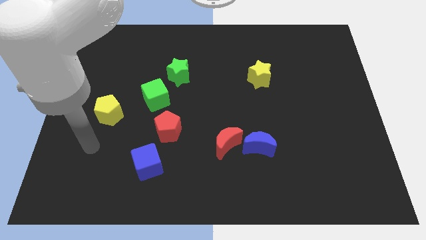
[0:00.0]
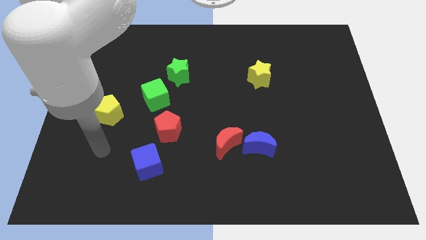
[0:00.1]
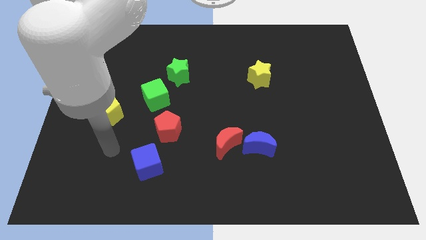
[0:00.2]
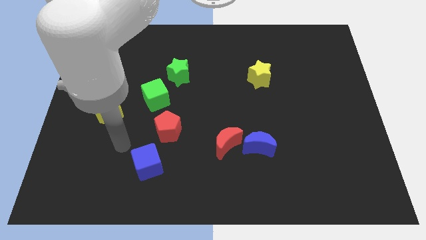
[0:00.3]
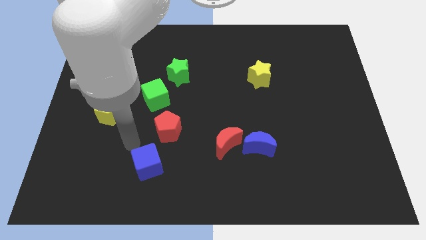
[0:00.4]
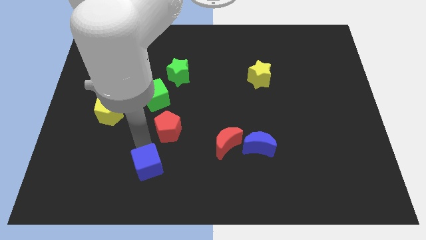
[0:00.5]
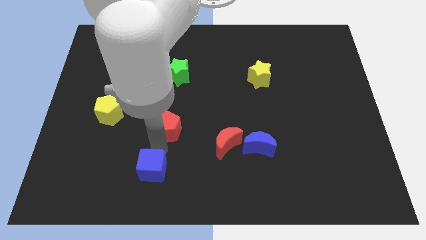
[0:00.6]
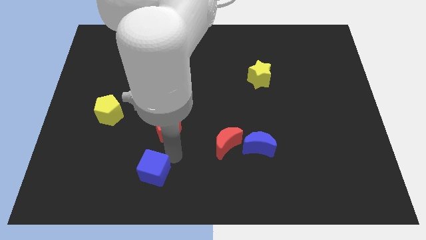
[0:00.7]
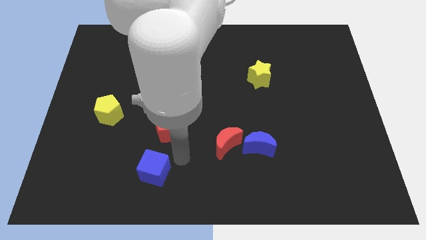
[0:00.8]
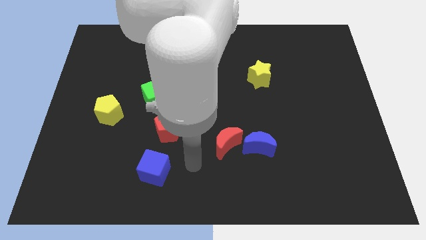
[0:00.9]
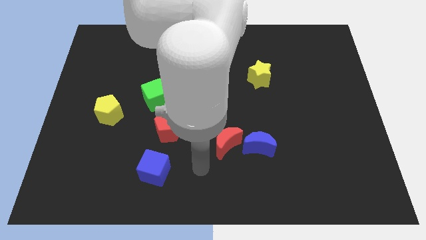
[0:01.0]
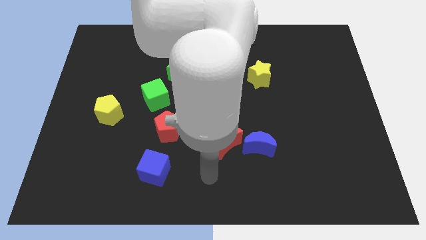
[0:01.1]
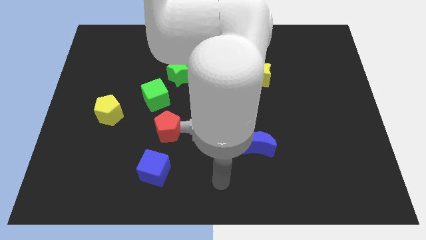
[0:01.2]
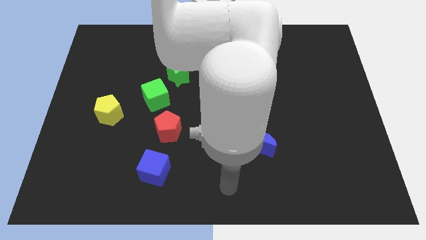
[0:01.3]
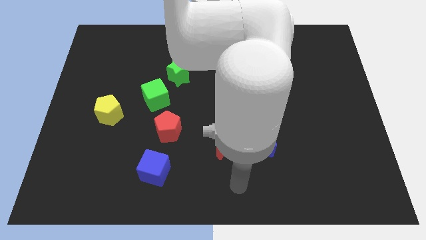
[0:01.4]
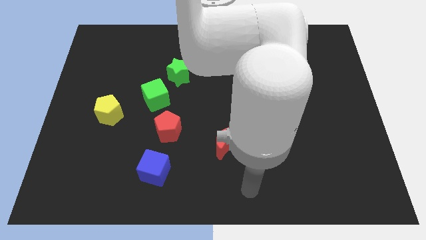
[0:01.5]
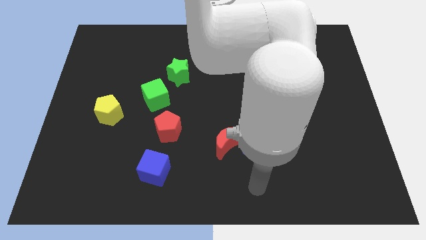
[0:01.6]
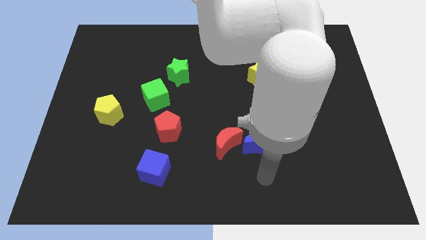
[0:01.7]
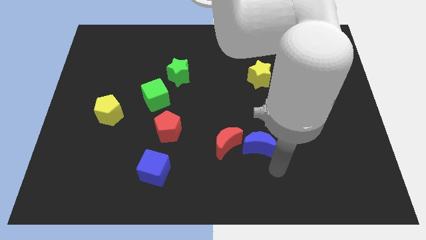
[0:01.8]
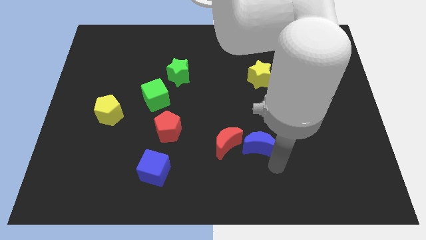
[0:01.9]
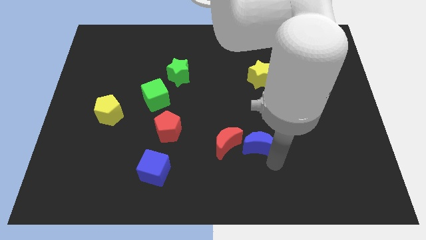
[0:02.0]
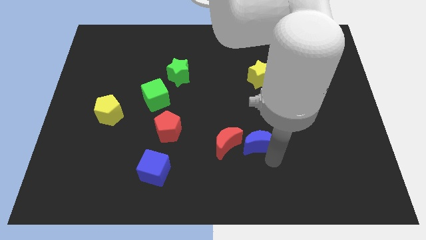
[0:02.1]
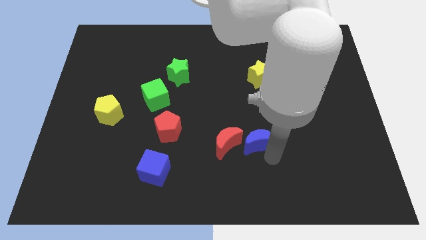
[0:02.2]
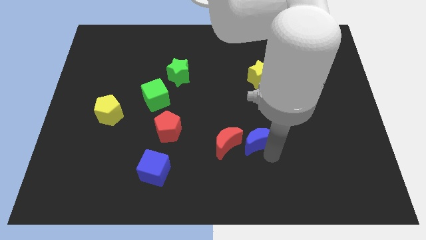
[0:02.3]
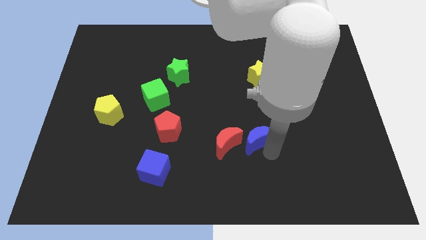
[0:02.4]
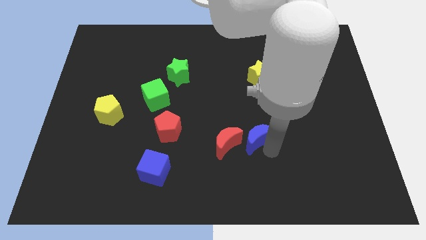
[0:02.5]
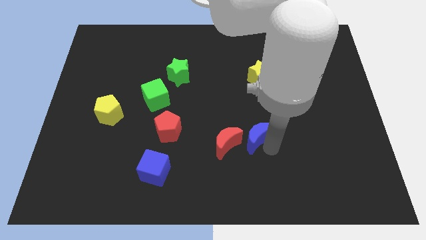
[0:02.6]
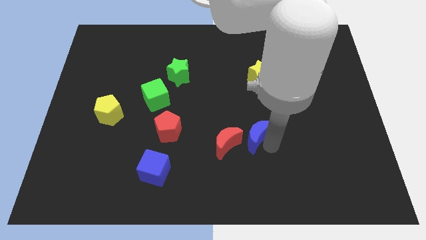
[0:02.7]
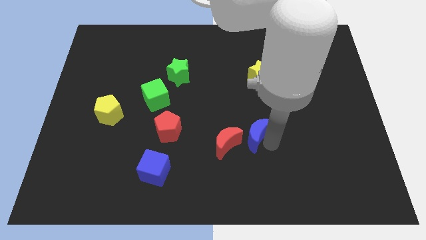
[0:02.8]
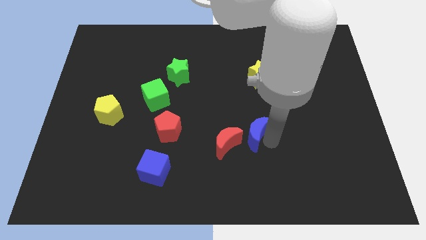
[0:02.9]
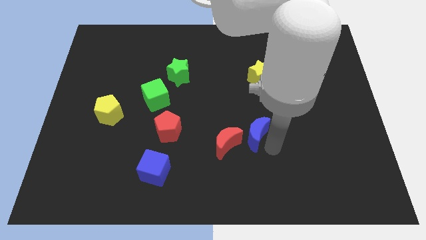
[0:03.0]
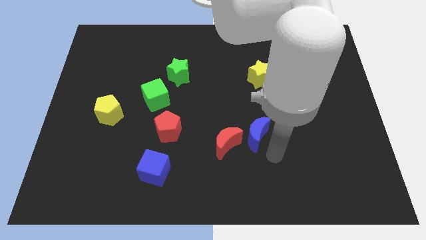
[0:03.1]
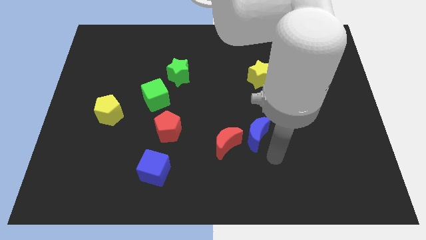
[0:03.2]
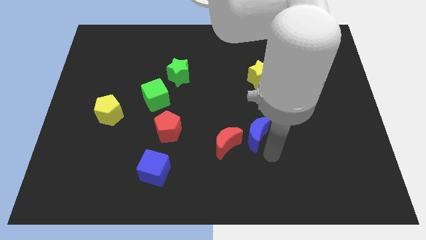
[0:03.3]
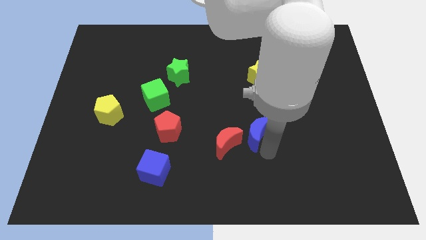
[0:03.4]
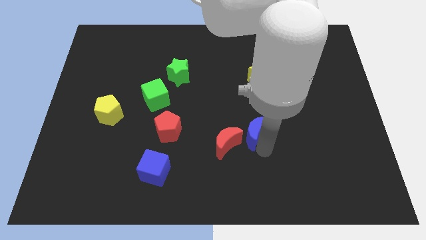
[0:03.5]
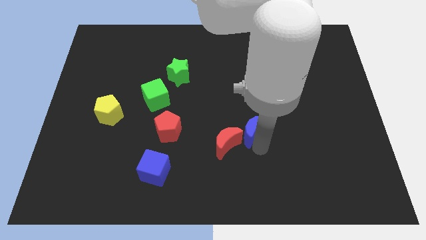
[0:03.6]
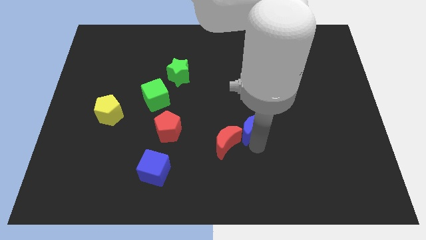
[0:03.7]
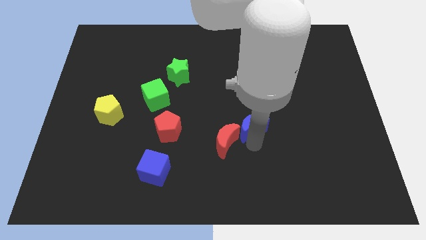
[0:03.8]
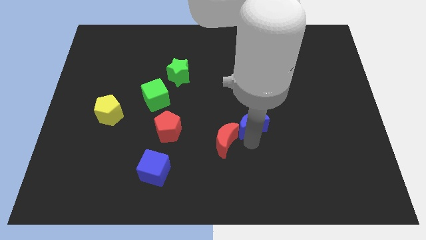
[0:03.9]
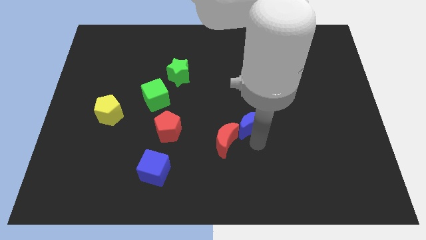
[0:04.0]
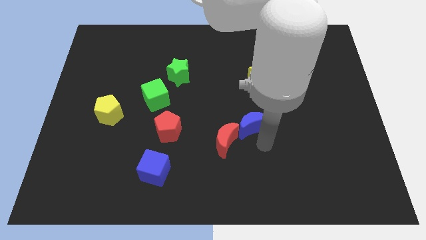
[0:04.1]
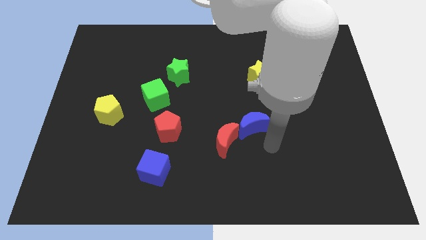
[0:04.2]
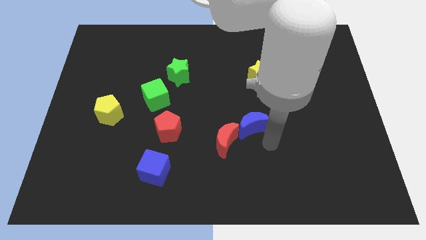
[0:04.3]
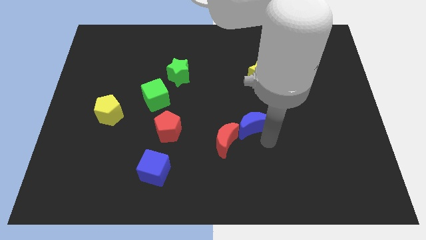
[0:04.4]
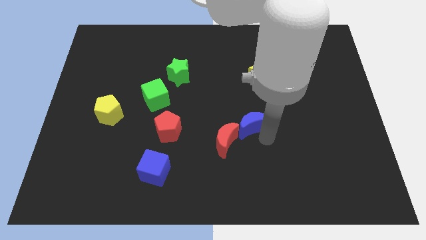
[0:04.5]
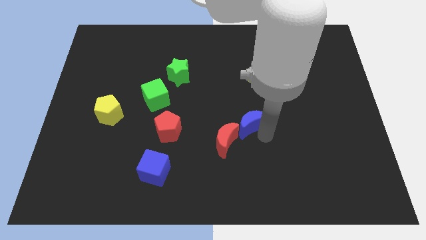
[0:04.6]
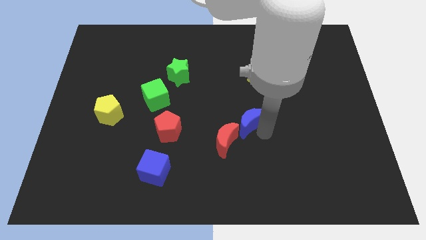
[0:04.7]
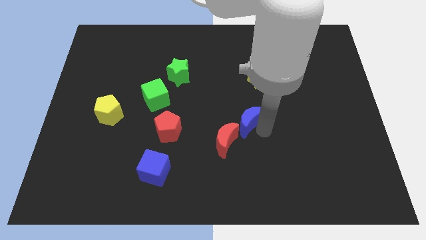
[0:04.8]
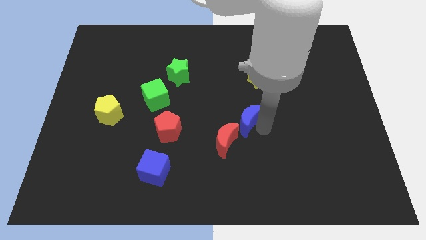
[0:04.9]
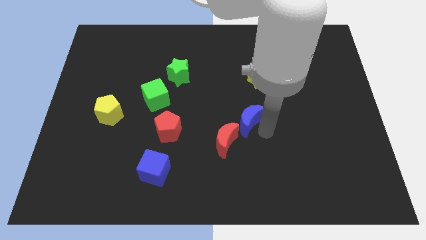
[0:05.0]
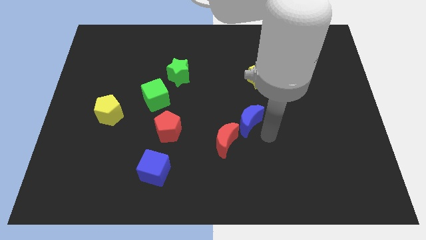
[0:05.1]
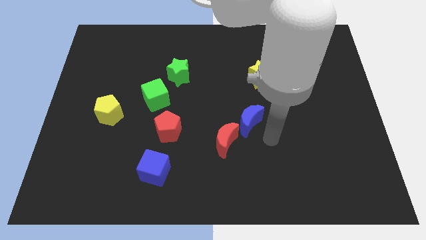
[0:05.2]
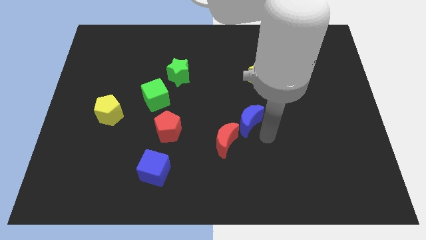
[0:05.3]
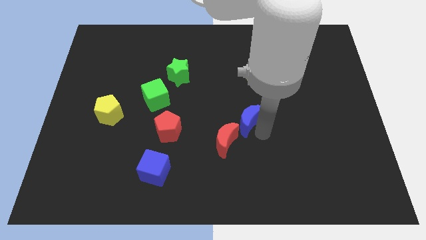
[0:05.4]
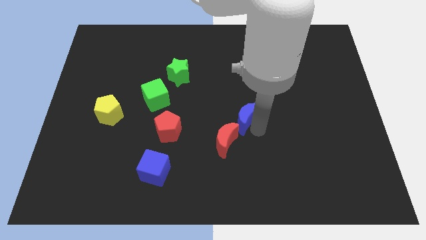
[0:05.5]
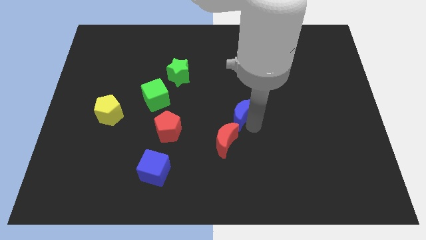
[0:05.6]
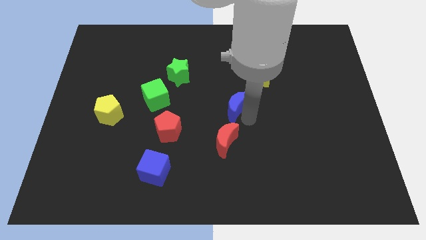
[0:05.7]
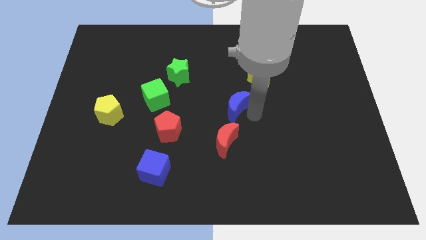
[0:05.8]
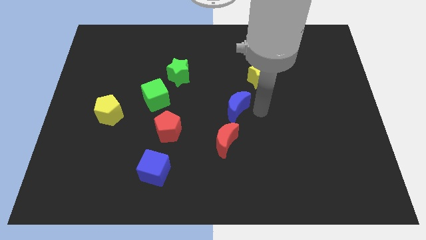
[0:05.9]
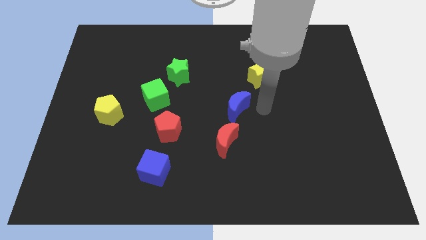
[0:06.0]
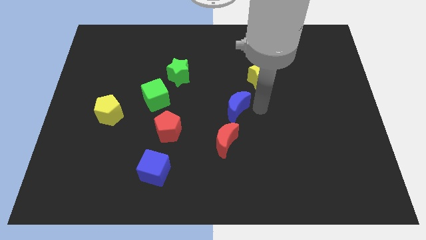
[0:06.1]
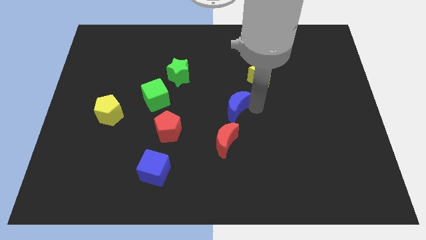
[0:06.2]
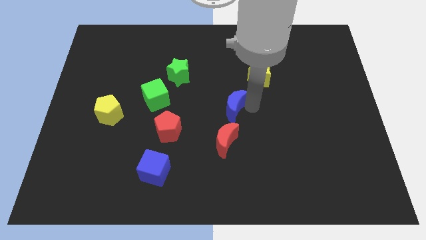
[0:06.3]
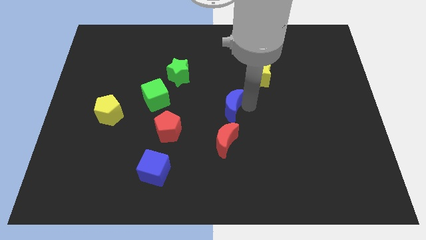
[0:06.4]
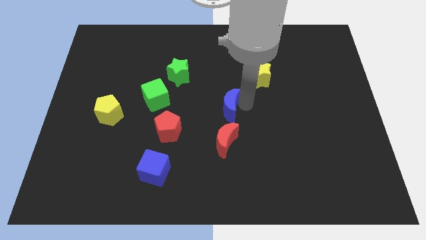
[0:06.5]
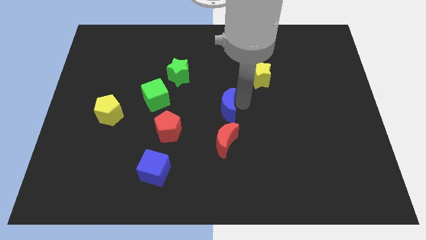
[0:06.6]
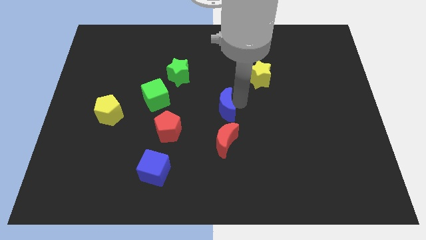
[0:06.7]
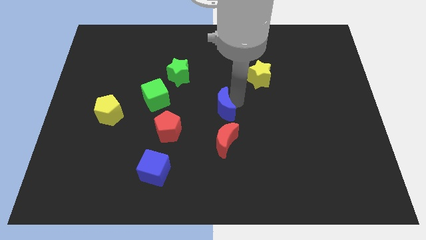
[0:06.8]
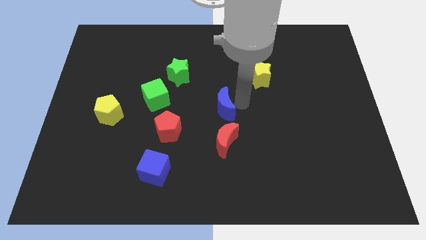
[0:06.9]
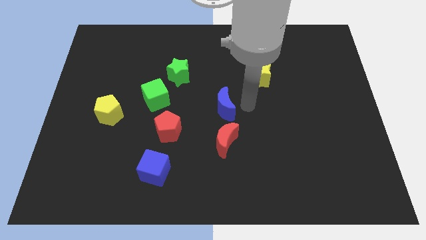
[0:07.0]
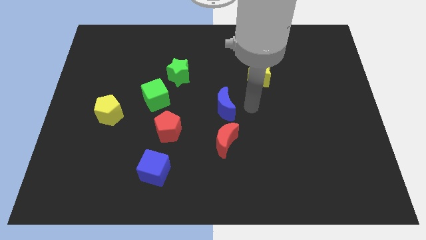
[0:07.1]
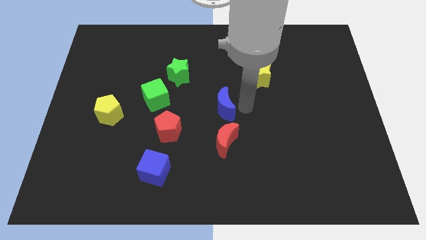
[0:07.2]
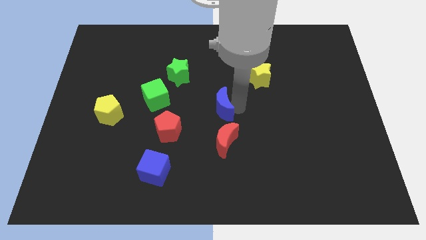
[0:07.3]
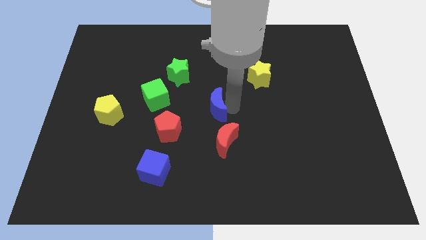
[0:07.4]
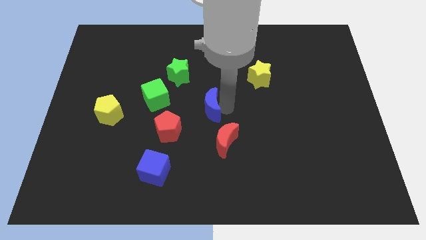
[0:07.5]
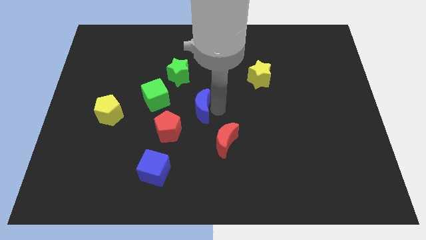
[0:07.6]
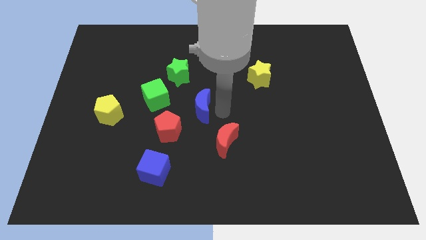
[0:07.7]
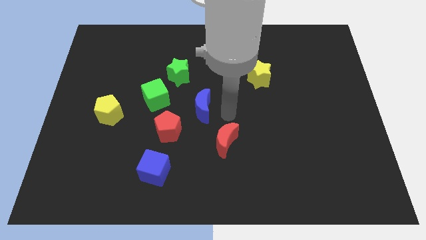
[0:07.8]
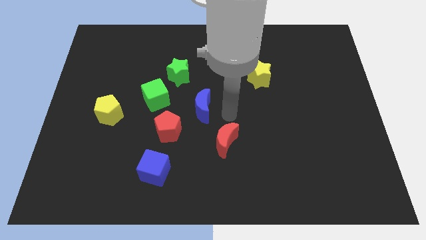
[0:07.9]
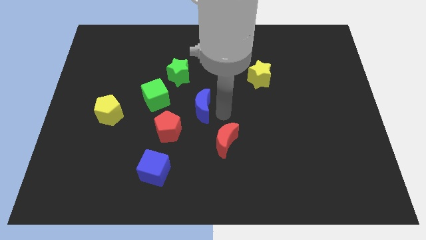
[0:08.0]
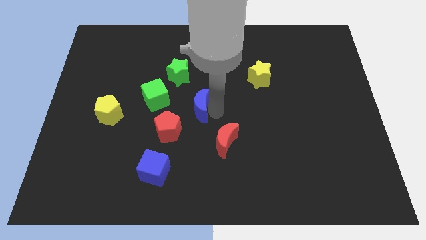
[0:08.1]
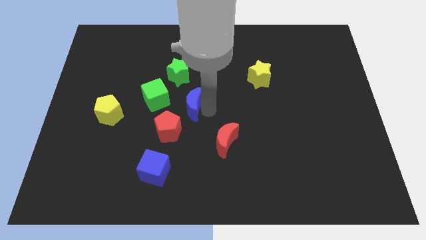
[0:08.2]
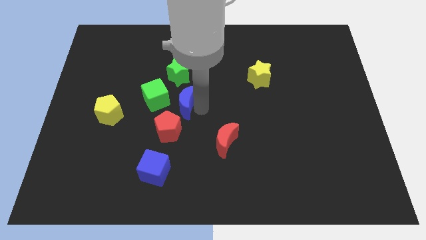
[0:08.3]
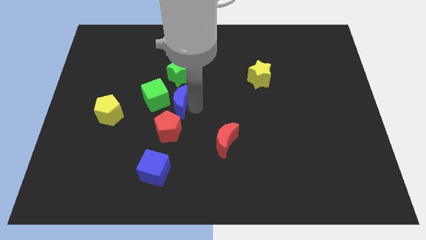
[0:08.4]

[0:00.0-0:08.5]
put the blue moon next to the green cube
